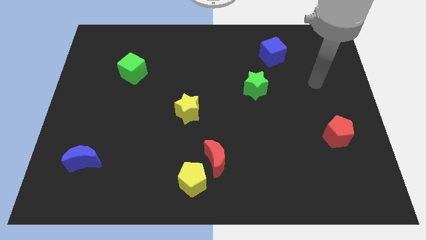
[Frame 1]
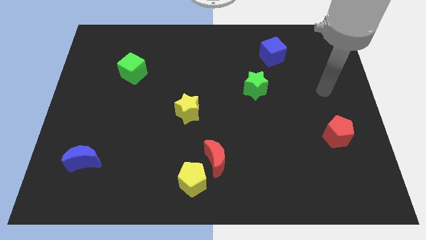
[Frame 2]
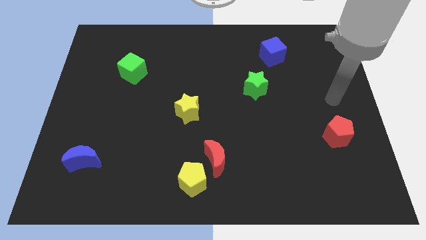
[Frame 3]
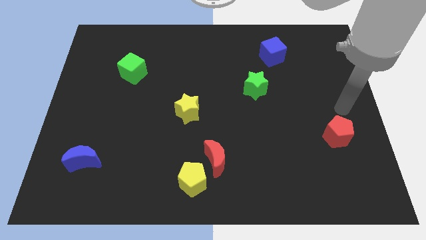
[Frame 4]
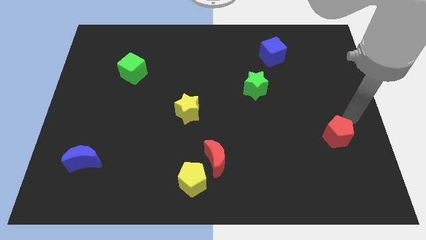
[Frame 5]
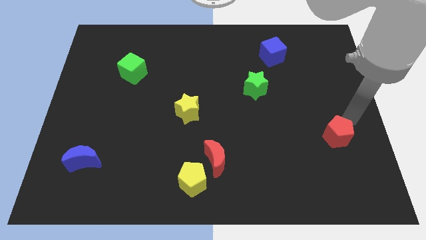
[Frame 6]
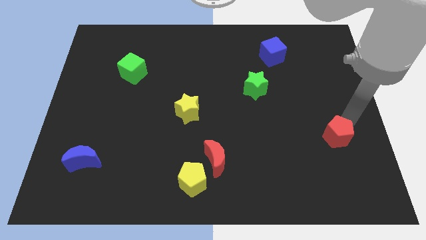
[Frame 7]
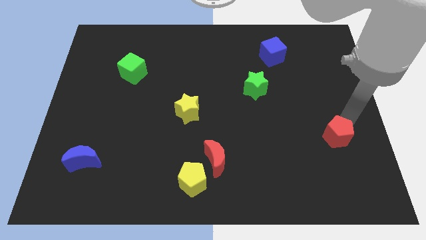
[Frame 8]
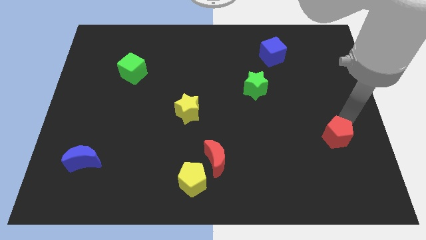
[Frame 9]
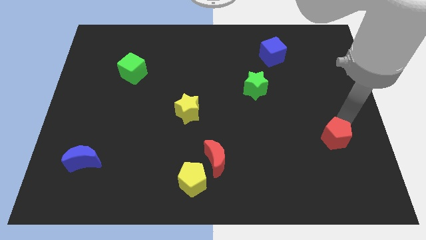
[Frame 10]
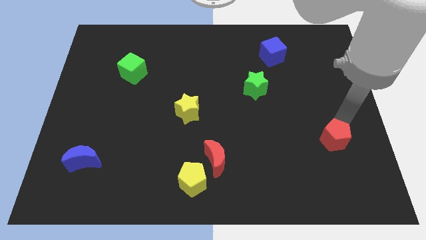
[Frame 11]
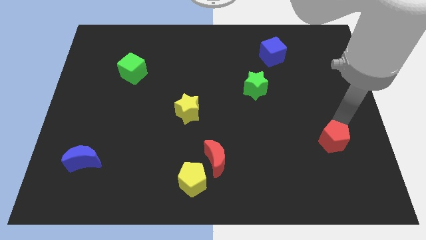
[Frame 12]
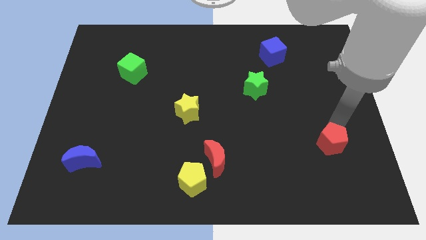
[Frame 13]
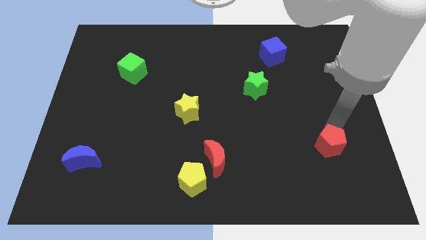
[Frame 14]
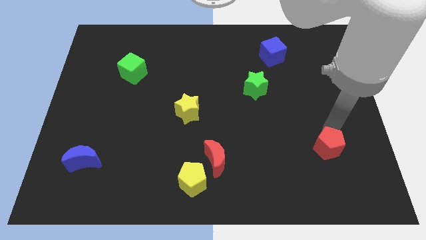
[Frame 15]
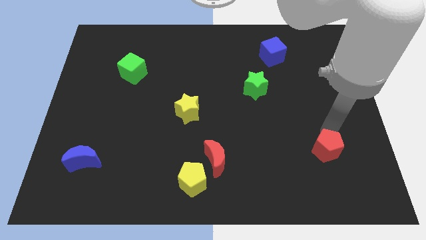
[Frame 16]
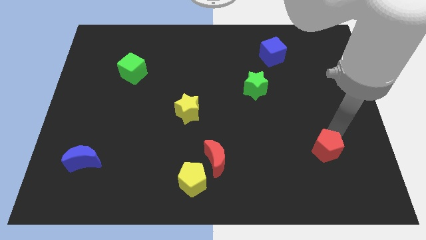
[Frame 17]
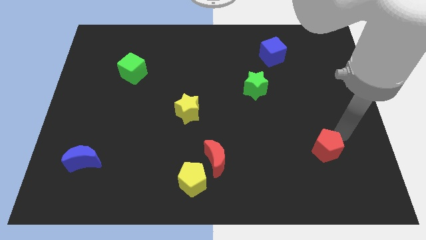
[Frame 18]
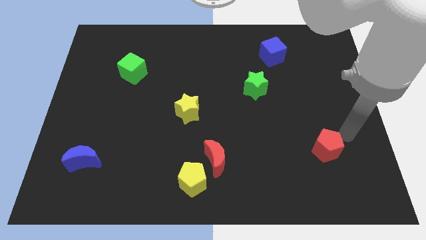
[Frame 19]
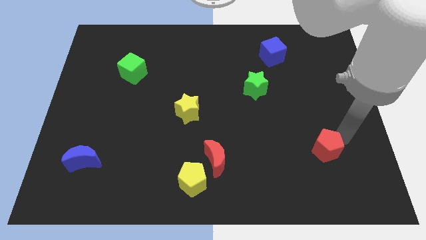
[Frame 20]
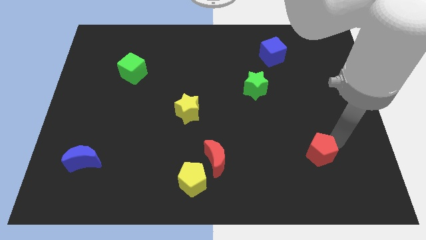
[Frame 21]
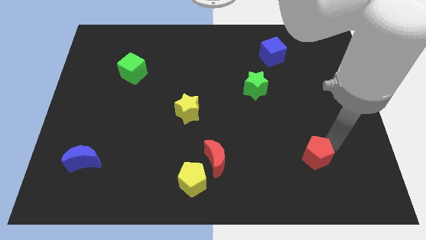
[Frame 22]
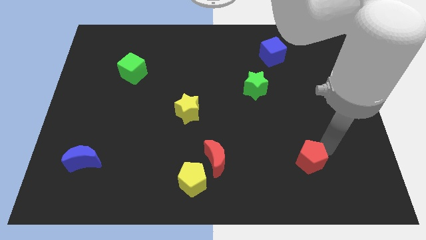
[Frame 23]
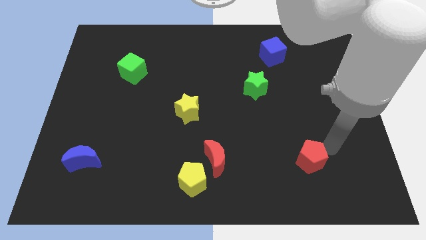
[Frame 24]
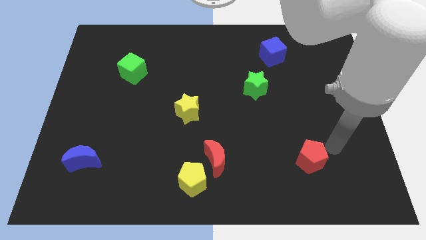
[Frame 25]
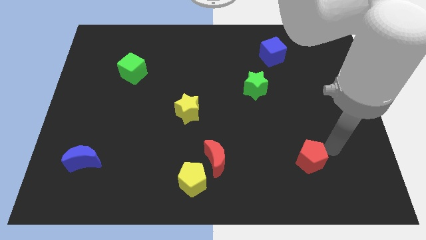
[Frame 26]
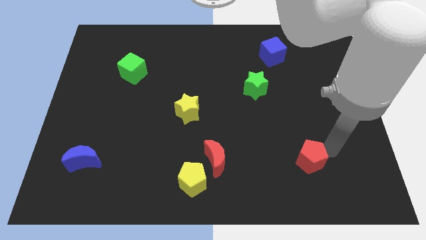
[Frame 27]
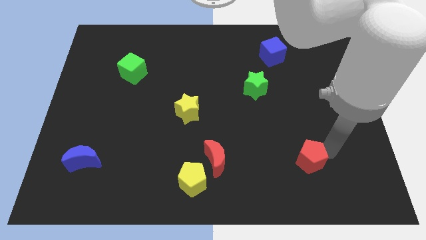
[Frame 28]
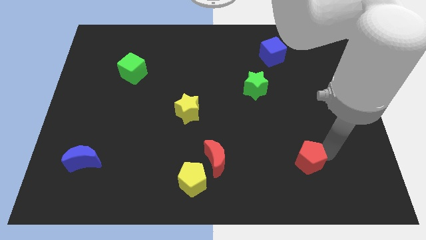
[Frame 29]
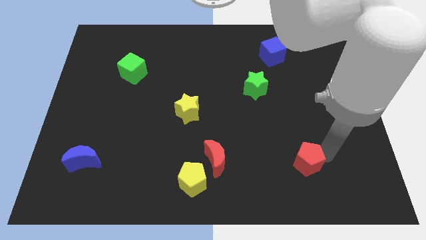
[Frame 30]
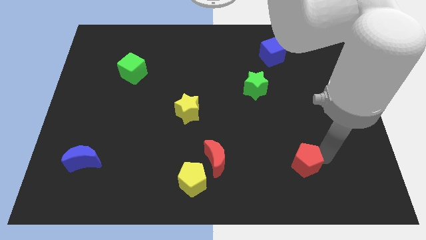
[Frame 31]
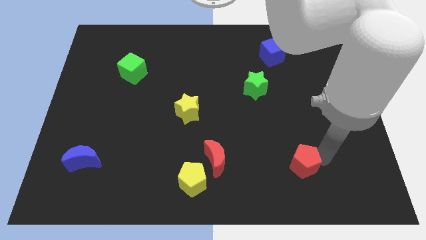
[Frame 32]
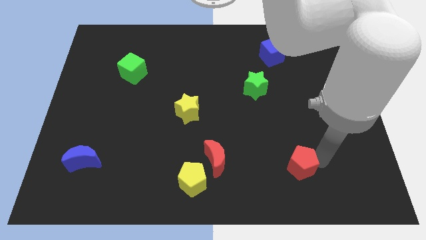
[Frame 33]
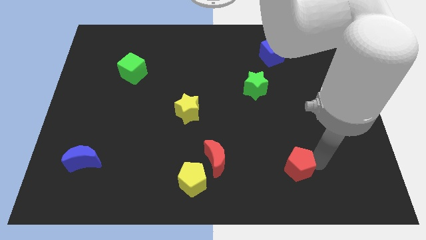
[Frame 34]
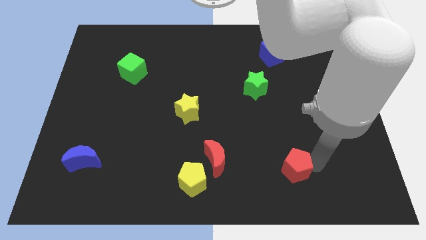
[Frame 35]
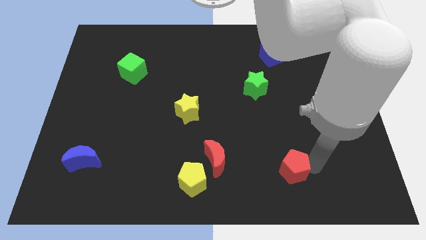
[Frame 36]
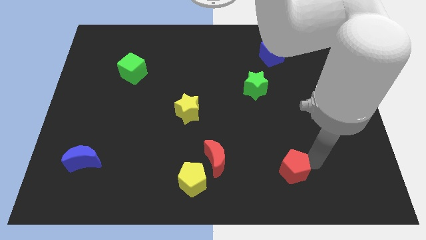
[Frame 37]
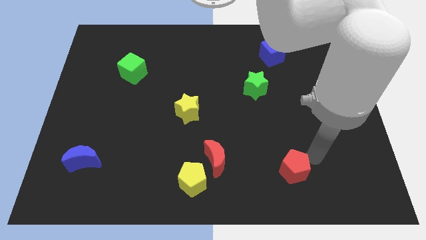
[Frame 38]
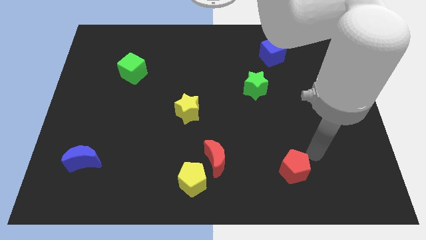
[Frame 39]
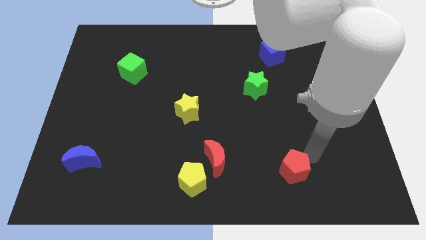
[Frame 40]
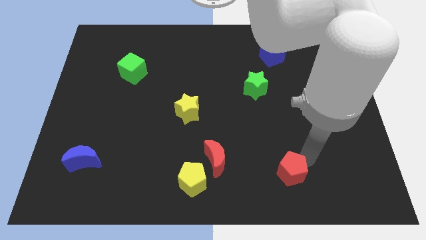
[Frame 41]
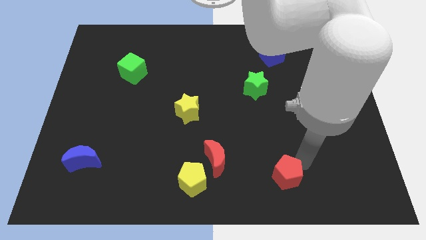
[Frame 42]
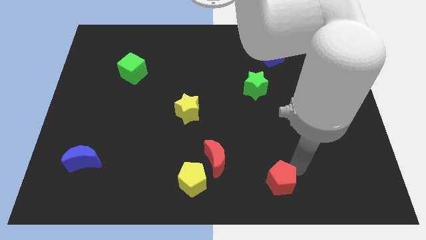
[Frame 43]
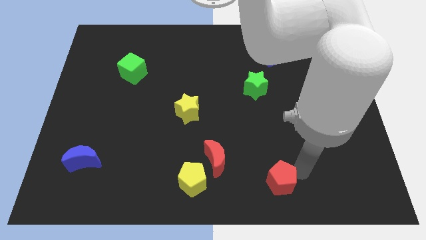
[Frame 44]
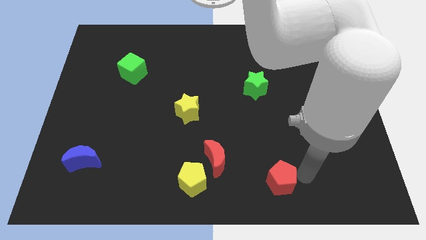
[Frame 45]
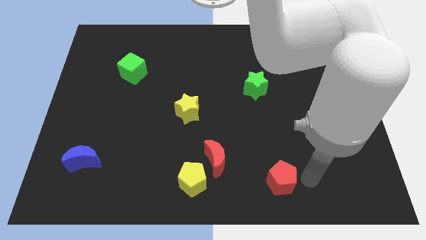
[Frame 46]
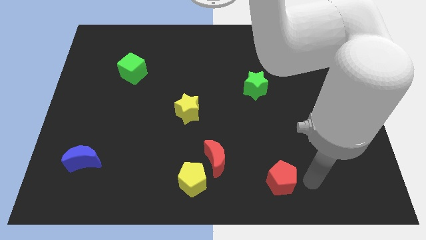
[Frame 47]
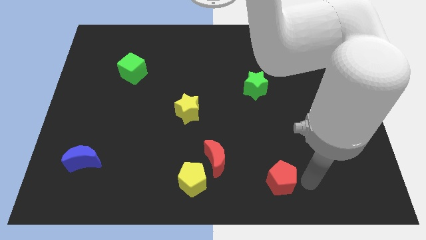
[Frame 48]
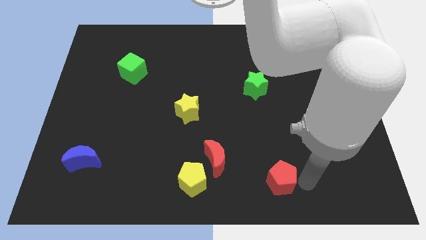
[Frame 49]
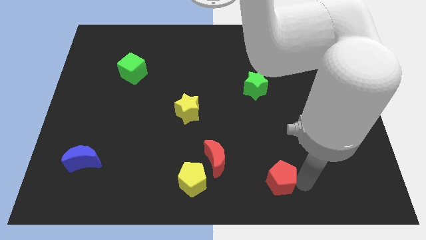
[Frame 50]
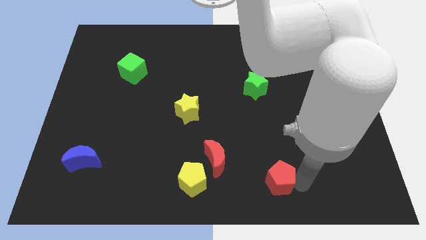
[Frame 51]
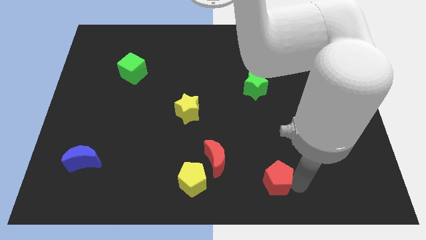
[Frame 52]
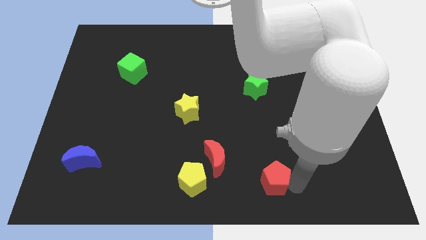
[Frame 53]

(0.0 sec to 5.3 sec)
put the red pentagon to the bottom side

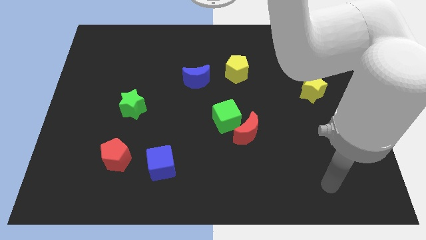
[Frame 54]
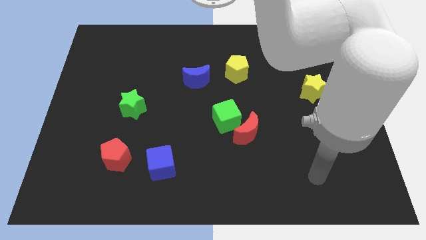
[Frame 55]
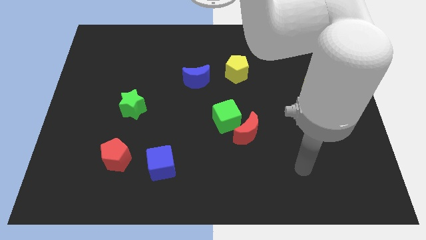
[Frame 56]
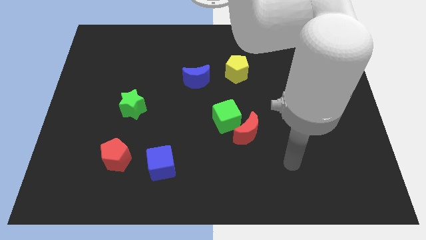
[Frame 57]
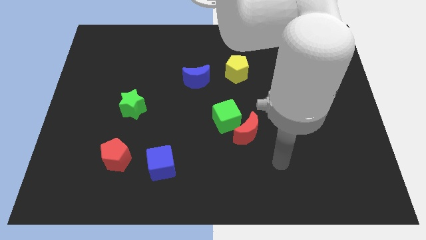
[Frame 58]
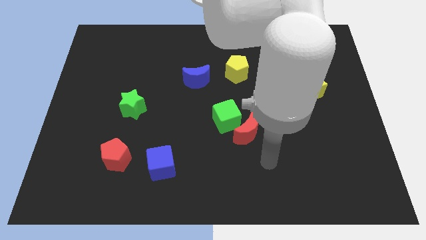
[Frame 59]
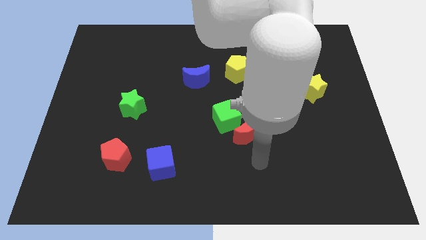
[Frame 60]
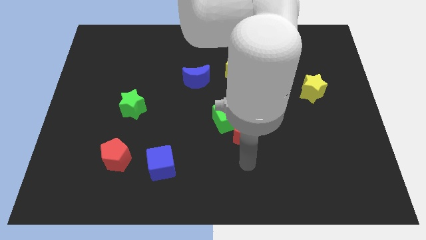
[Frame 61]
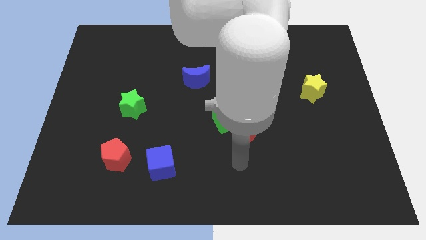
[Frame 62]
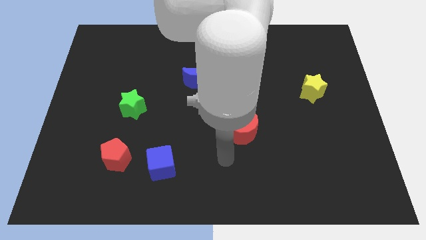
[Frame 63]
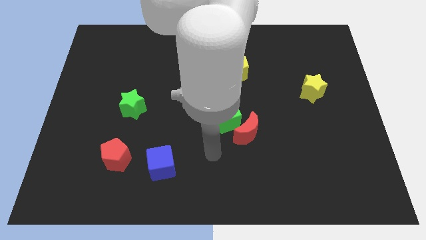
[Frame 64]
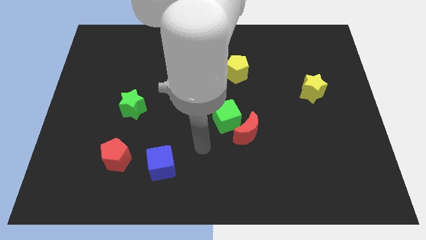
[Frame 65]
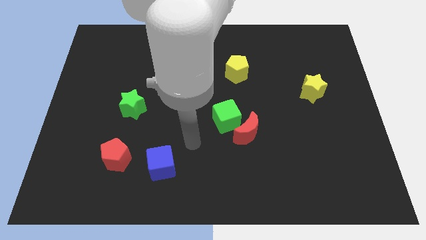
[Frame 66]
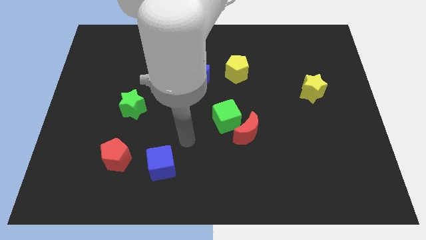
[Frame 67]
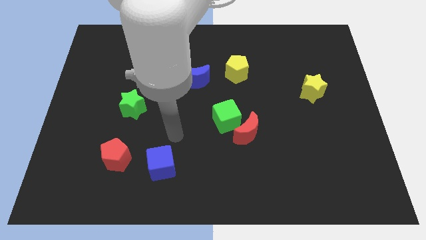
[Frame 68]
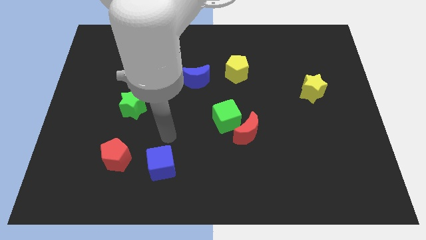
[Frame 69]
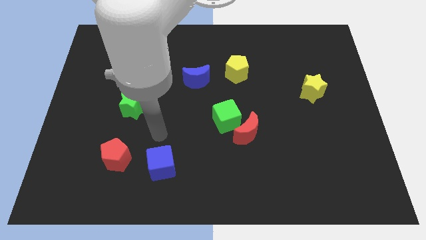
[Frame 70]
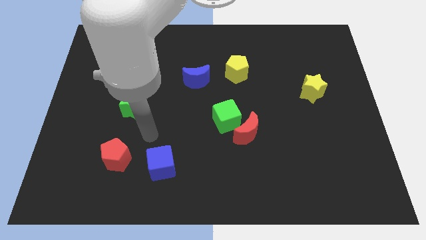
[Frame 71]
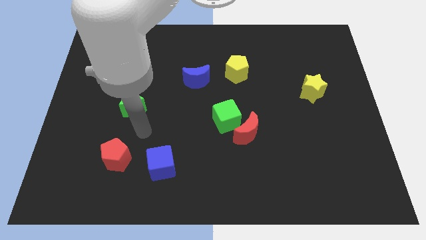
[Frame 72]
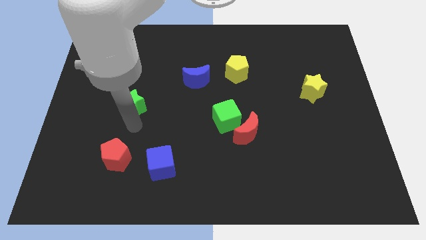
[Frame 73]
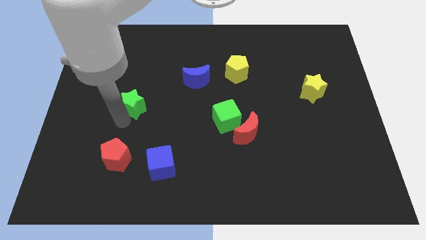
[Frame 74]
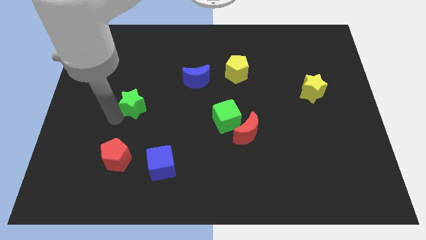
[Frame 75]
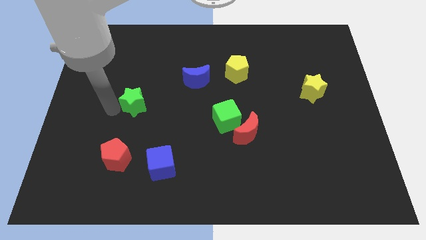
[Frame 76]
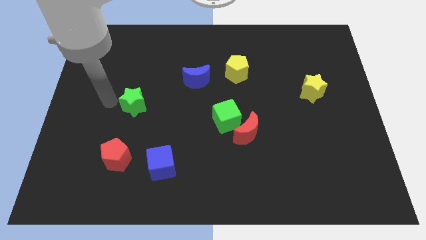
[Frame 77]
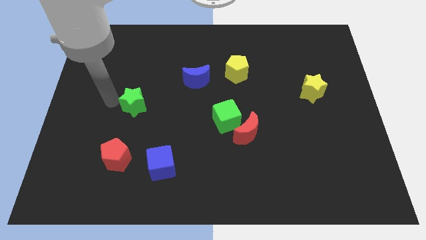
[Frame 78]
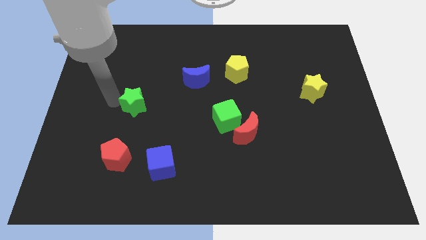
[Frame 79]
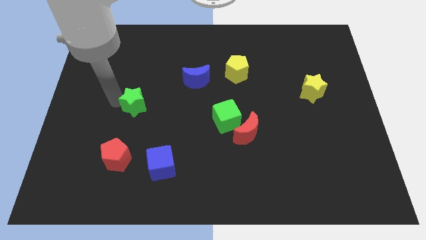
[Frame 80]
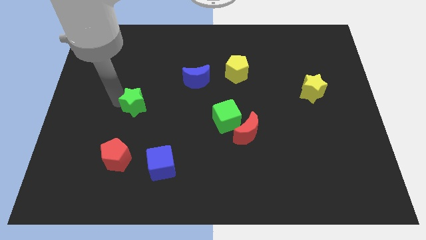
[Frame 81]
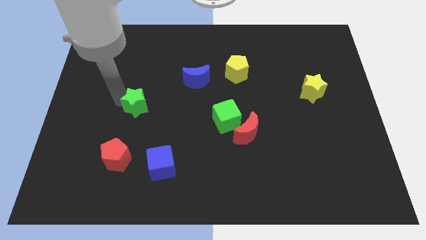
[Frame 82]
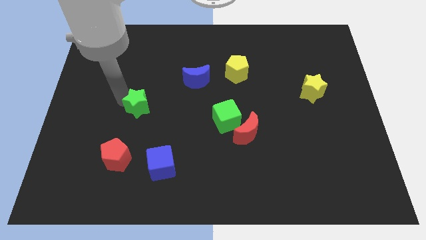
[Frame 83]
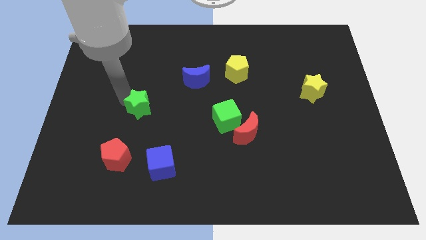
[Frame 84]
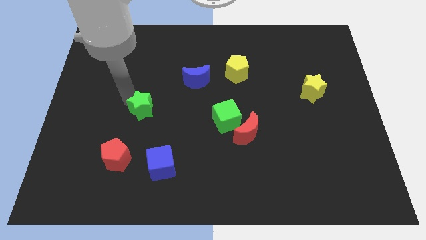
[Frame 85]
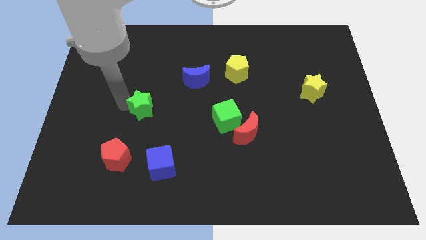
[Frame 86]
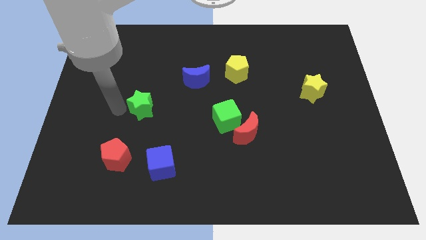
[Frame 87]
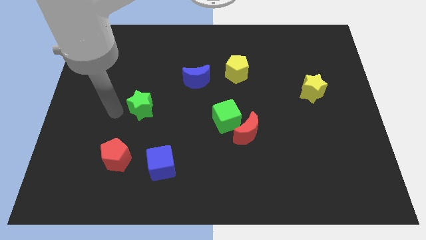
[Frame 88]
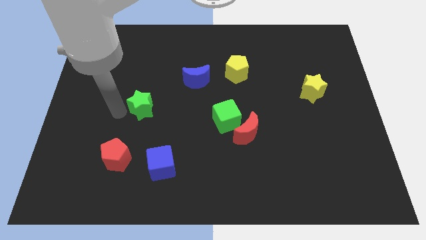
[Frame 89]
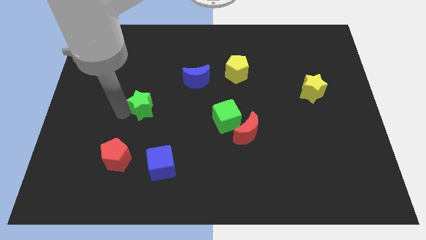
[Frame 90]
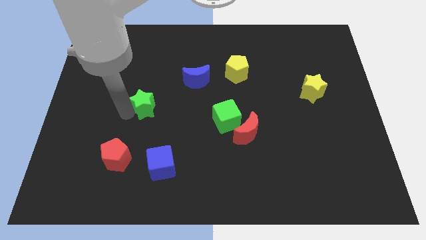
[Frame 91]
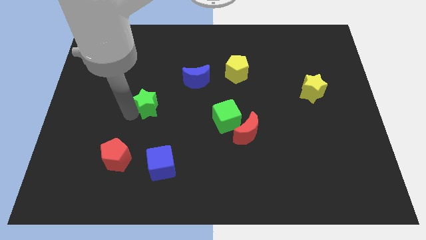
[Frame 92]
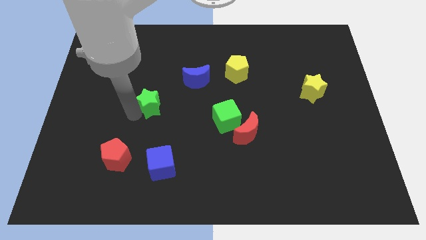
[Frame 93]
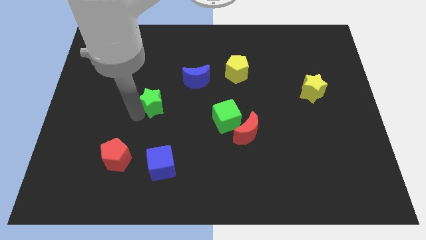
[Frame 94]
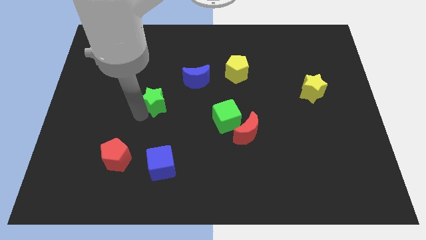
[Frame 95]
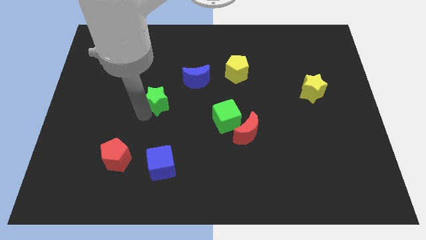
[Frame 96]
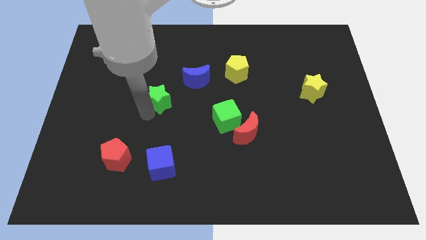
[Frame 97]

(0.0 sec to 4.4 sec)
move the green star to the center
